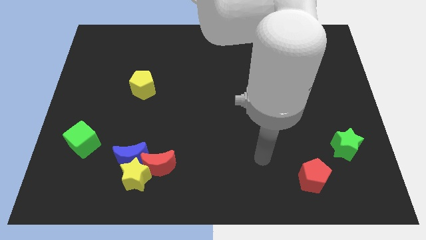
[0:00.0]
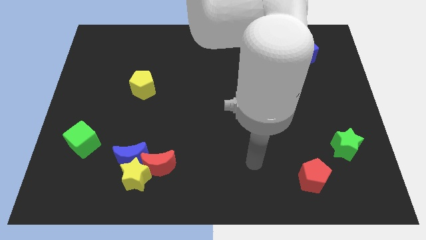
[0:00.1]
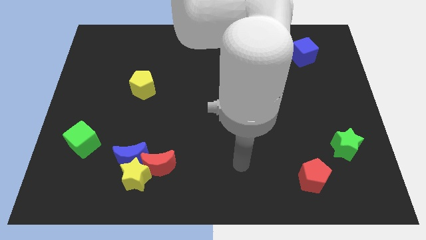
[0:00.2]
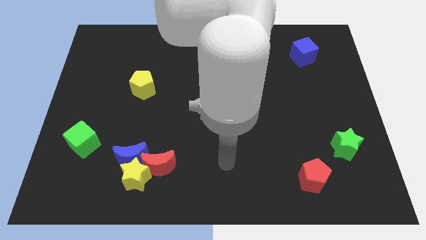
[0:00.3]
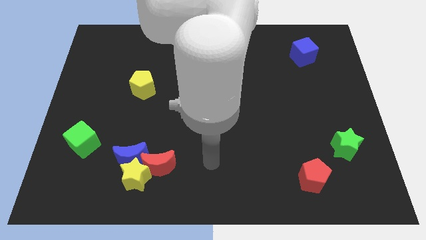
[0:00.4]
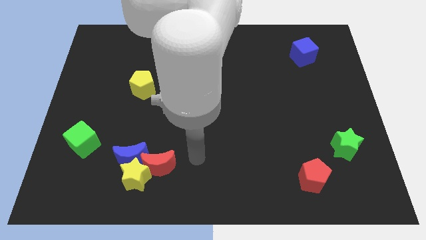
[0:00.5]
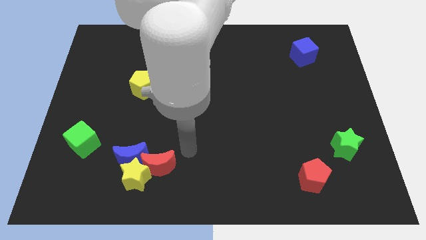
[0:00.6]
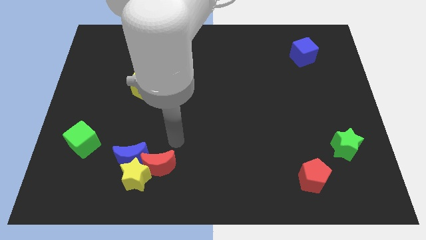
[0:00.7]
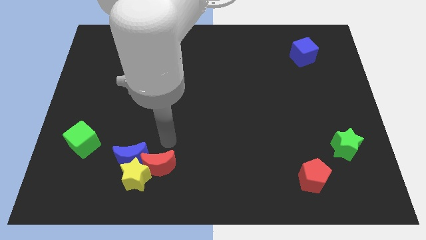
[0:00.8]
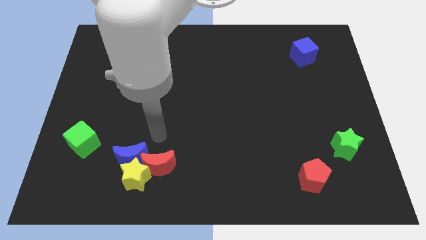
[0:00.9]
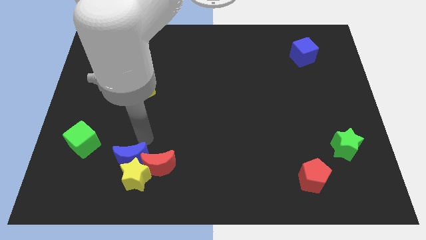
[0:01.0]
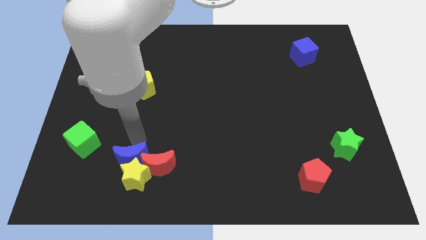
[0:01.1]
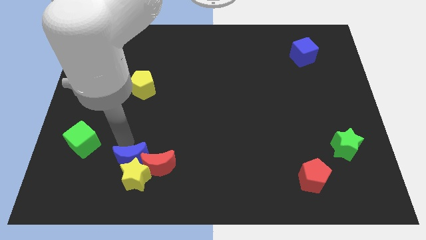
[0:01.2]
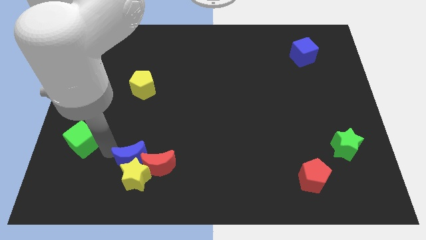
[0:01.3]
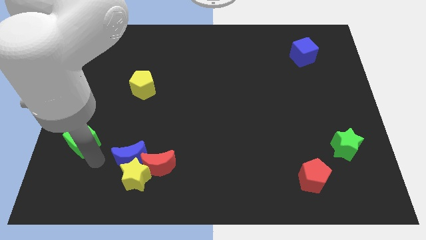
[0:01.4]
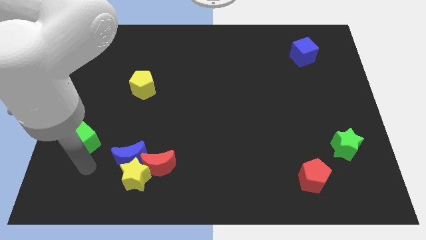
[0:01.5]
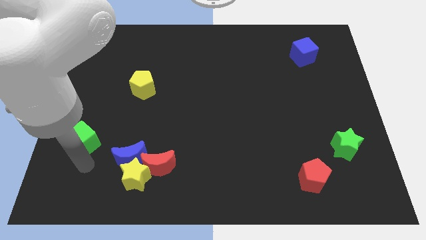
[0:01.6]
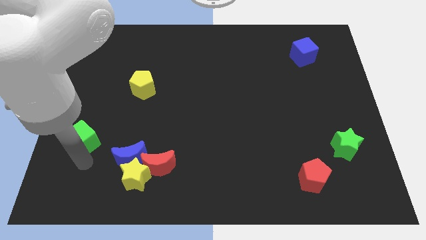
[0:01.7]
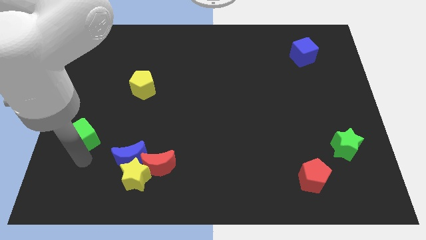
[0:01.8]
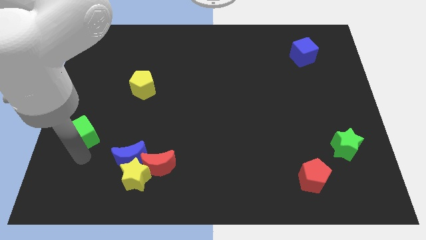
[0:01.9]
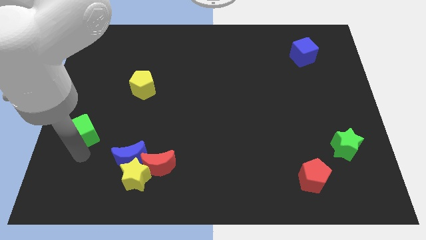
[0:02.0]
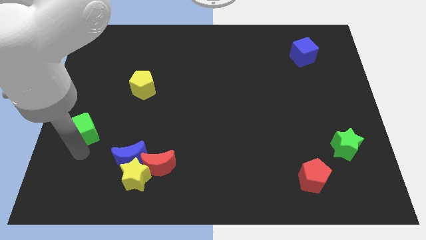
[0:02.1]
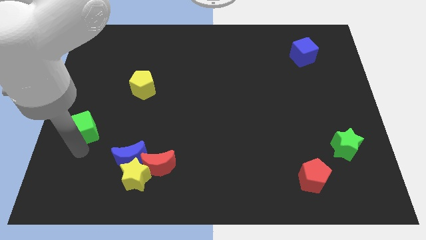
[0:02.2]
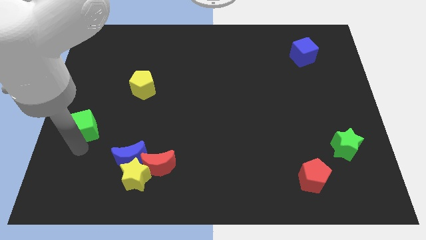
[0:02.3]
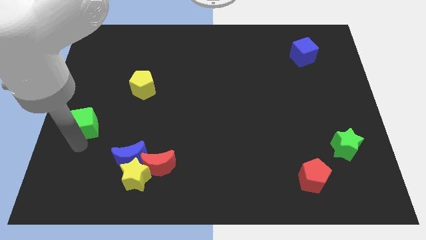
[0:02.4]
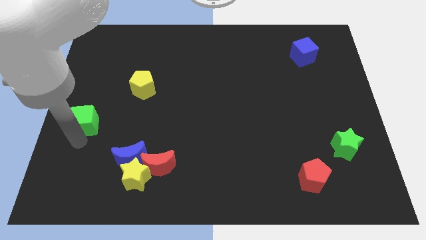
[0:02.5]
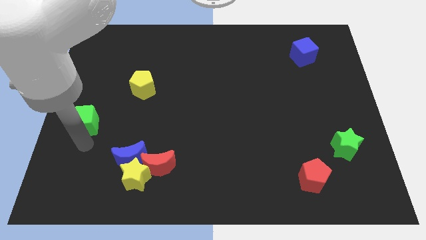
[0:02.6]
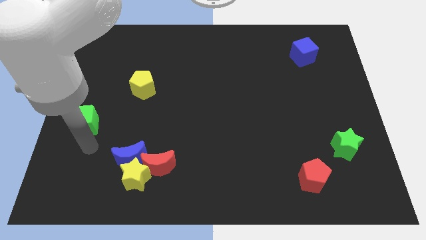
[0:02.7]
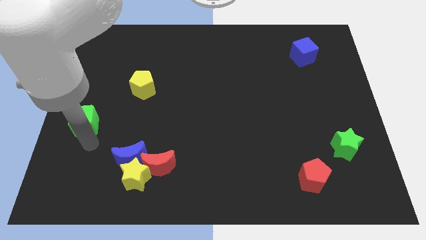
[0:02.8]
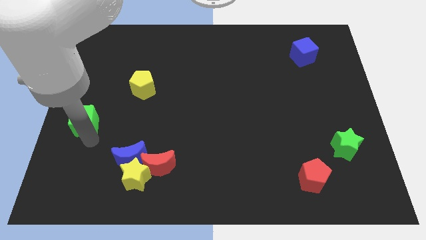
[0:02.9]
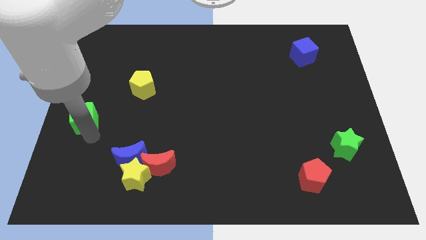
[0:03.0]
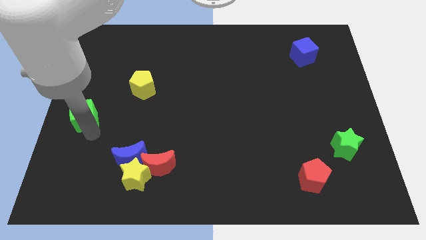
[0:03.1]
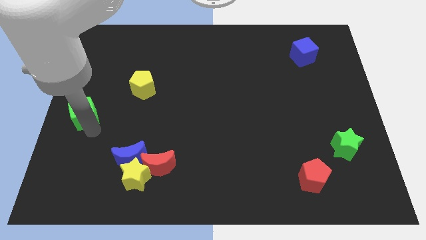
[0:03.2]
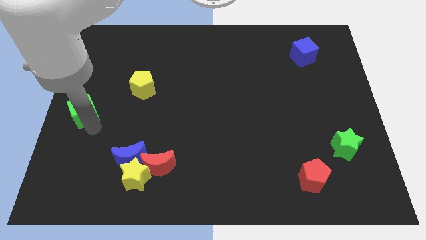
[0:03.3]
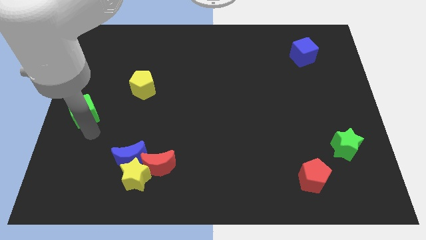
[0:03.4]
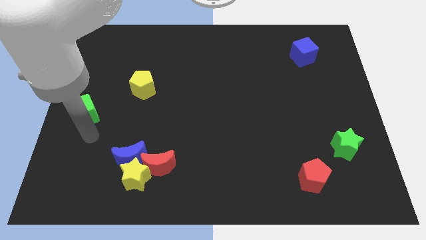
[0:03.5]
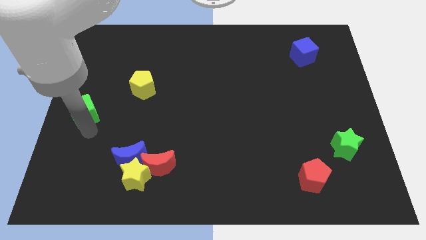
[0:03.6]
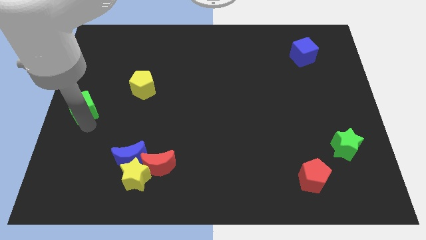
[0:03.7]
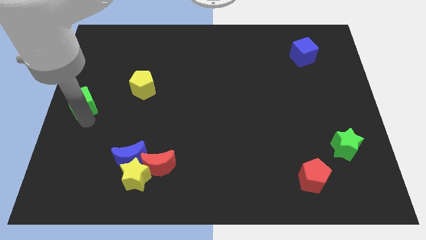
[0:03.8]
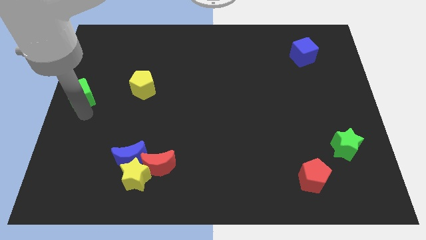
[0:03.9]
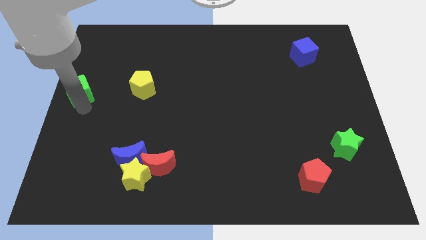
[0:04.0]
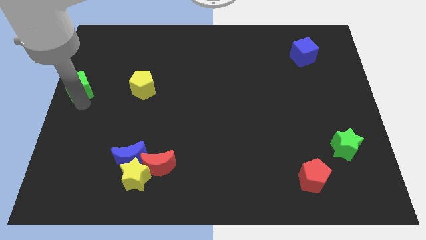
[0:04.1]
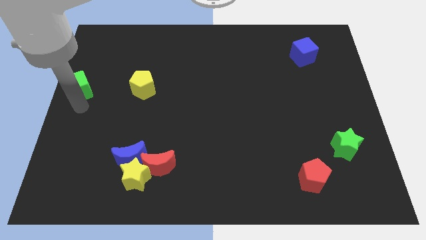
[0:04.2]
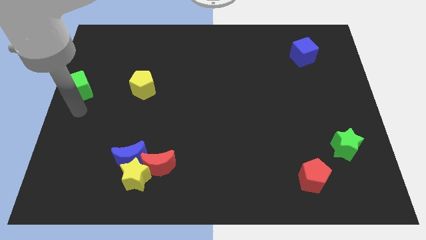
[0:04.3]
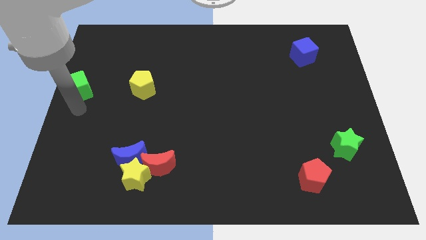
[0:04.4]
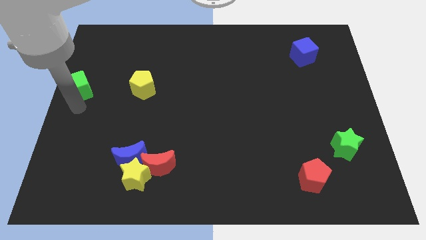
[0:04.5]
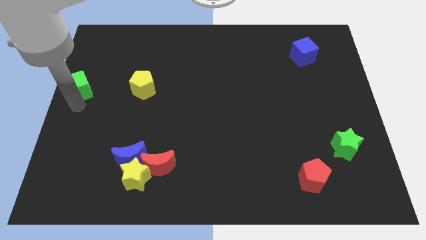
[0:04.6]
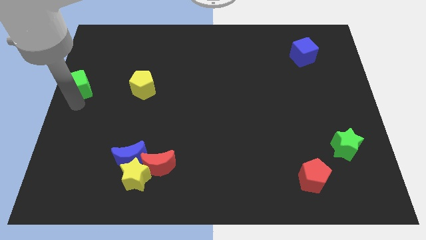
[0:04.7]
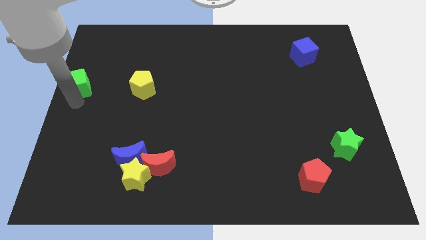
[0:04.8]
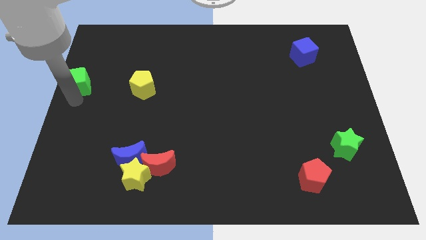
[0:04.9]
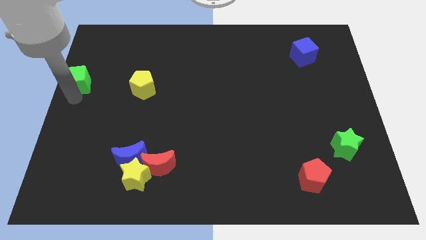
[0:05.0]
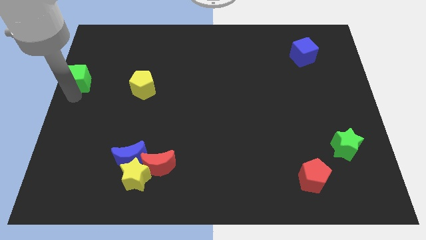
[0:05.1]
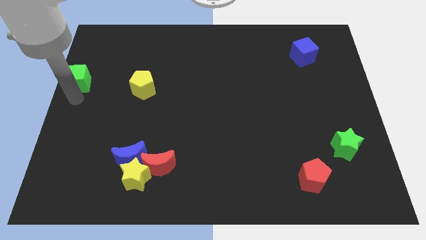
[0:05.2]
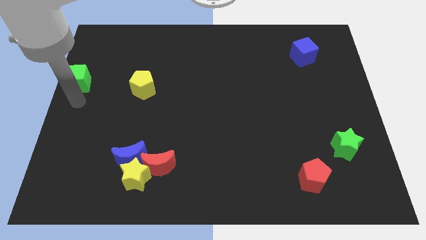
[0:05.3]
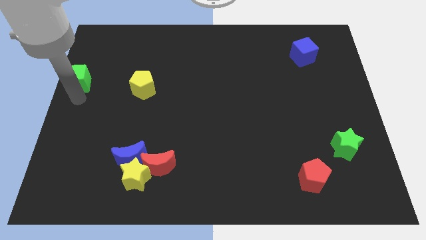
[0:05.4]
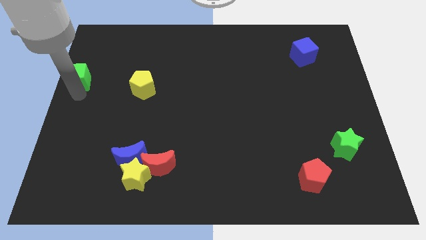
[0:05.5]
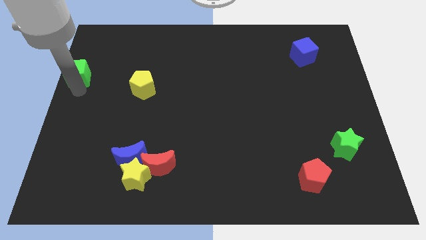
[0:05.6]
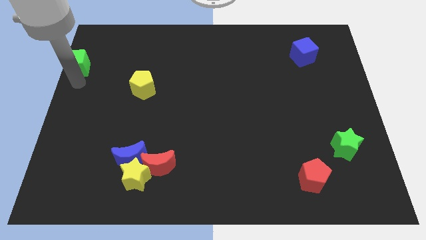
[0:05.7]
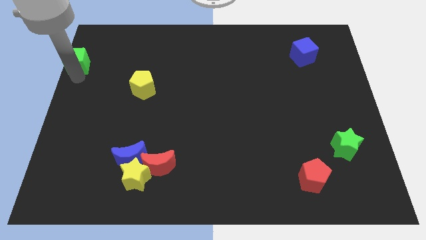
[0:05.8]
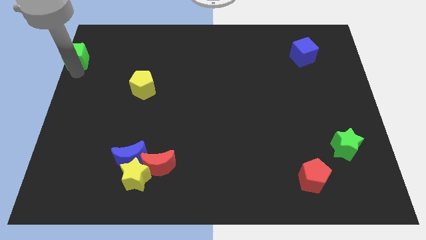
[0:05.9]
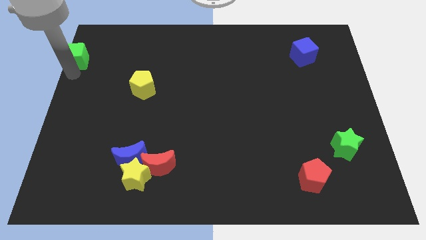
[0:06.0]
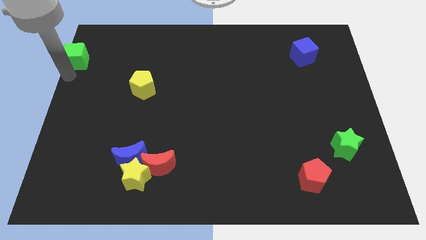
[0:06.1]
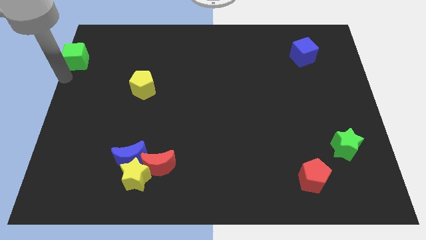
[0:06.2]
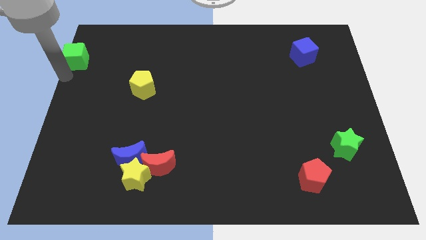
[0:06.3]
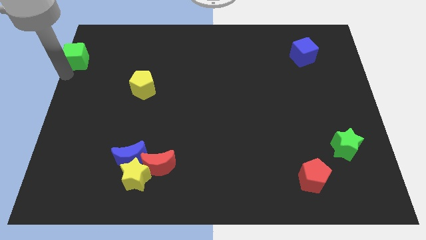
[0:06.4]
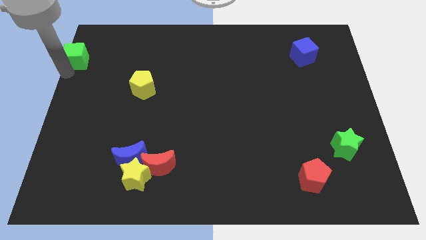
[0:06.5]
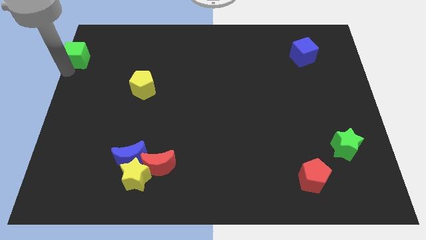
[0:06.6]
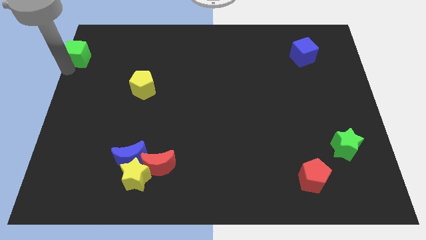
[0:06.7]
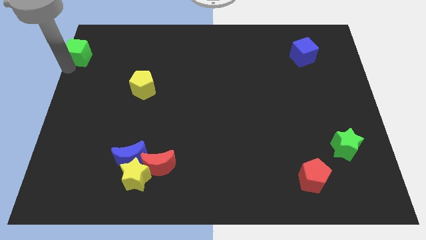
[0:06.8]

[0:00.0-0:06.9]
put the green cube to the top left of the board
